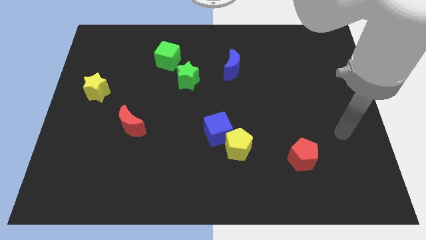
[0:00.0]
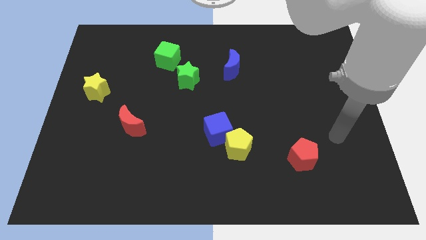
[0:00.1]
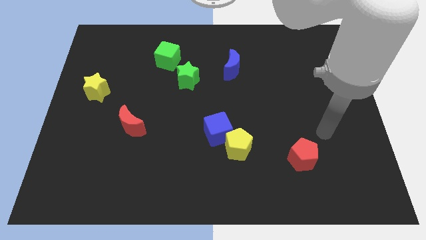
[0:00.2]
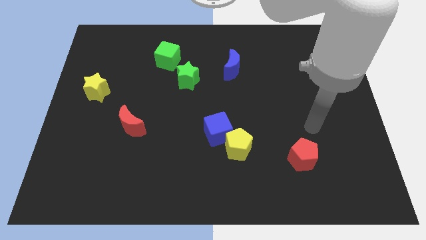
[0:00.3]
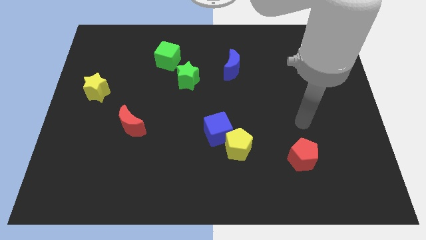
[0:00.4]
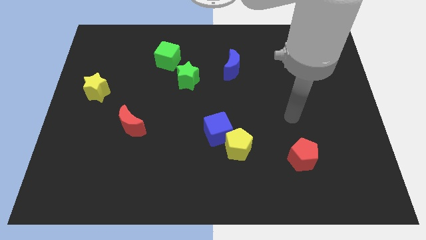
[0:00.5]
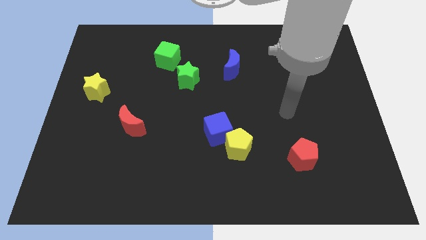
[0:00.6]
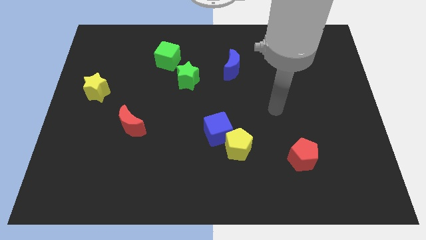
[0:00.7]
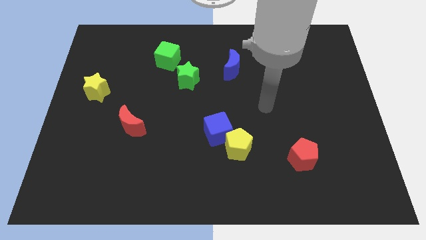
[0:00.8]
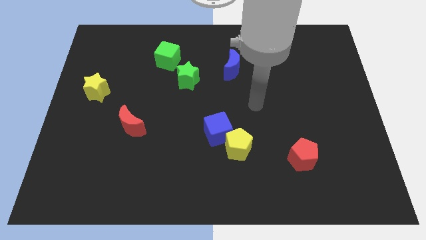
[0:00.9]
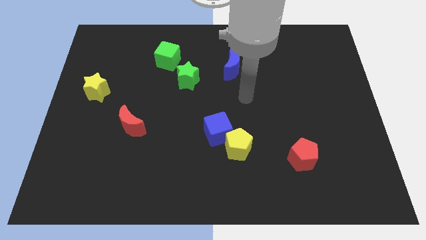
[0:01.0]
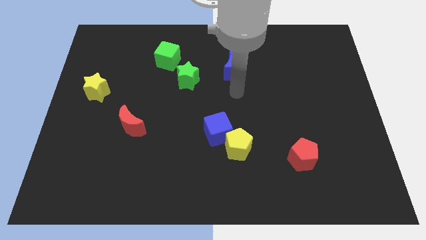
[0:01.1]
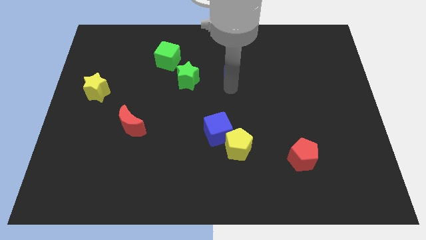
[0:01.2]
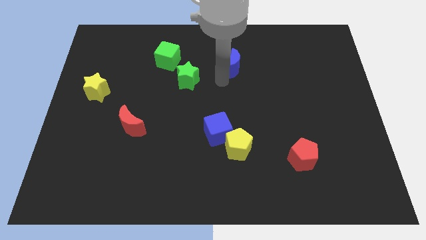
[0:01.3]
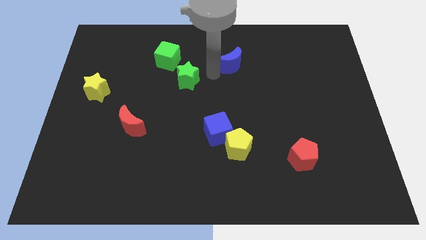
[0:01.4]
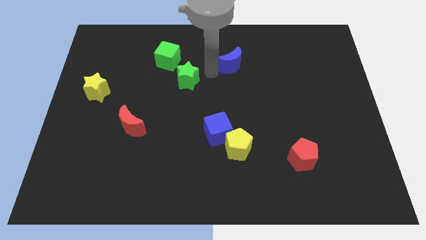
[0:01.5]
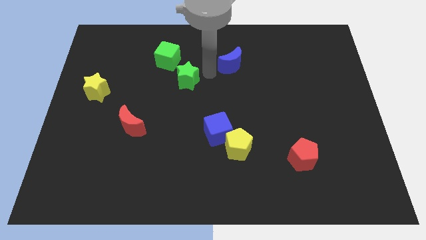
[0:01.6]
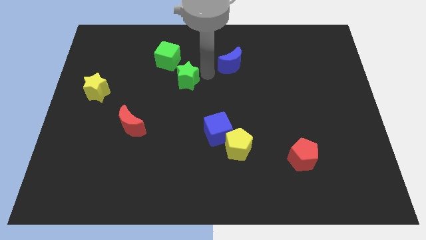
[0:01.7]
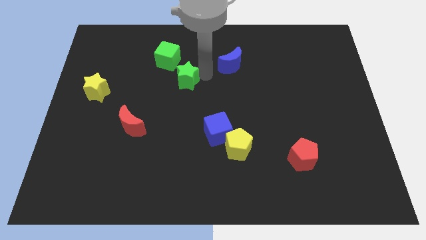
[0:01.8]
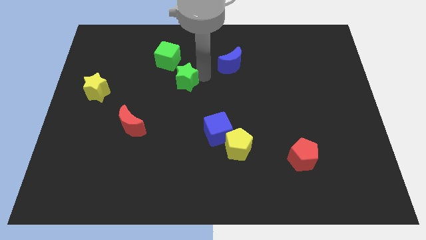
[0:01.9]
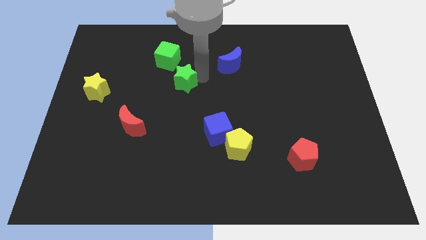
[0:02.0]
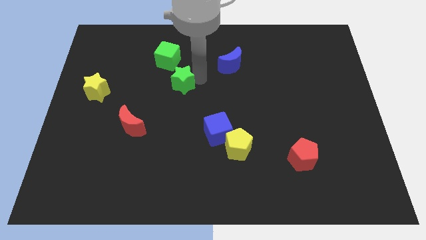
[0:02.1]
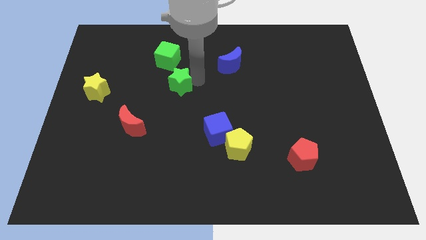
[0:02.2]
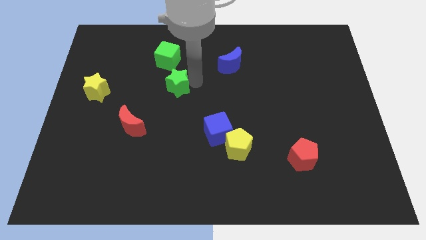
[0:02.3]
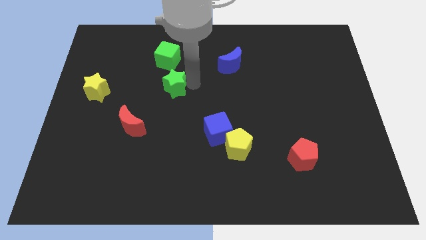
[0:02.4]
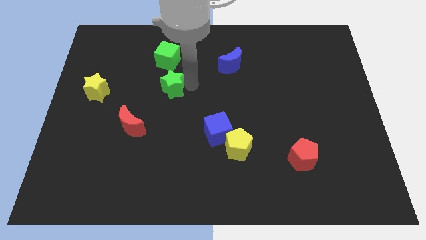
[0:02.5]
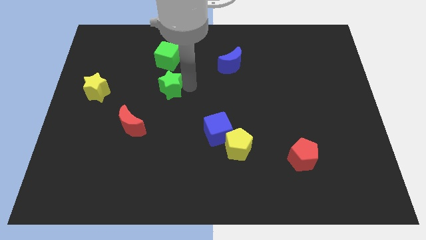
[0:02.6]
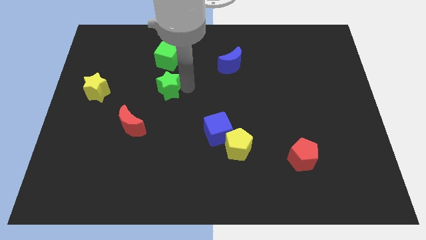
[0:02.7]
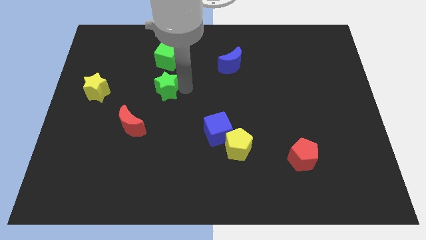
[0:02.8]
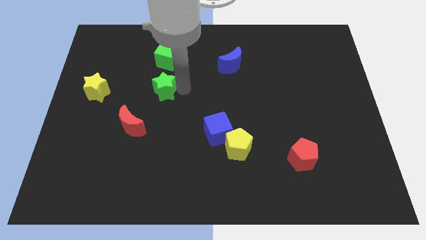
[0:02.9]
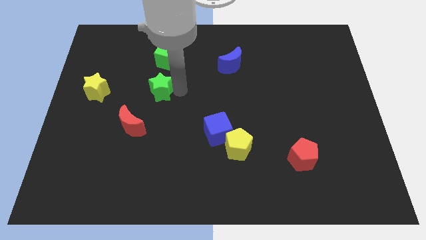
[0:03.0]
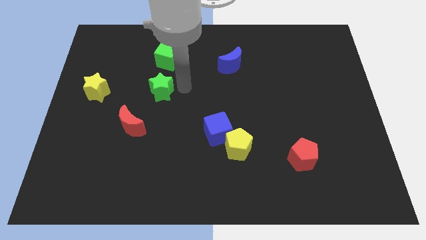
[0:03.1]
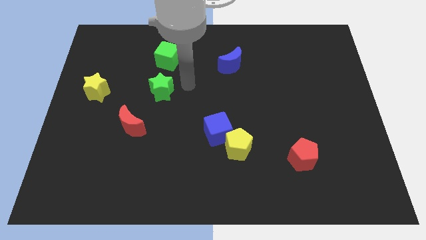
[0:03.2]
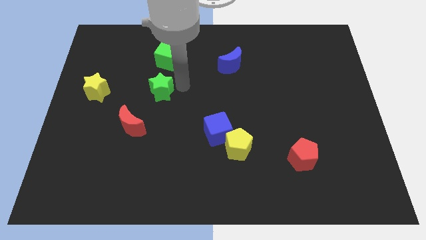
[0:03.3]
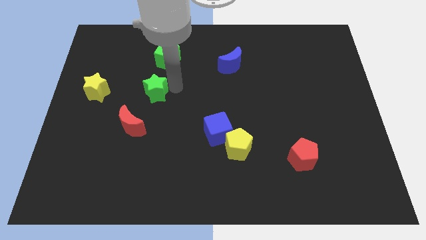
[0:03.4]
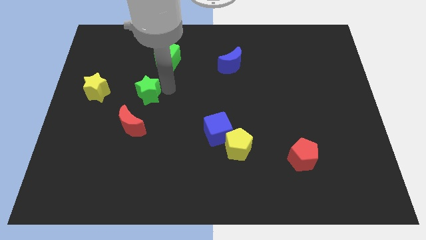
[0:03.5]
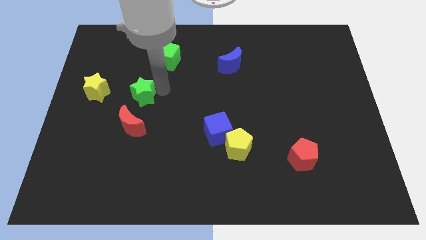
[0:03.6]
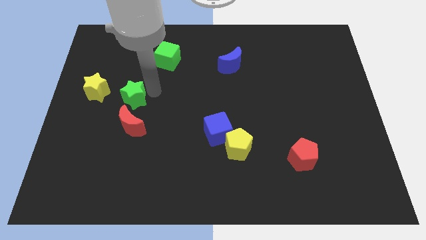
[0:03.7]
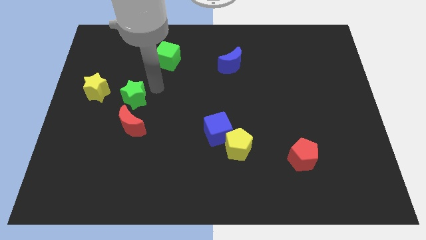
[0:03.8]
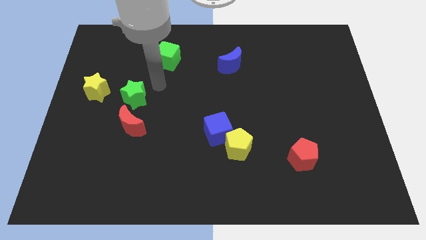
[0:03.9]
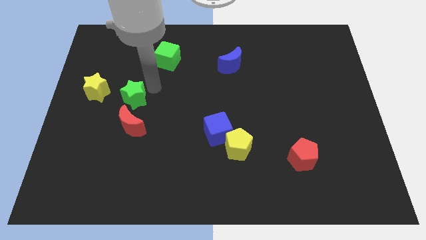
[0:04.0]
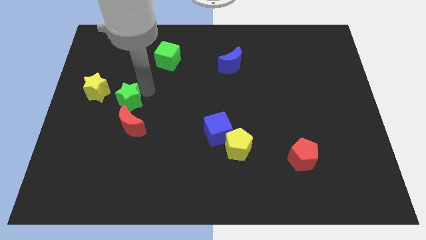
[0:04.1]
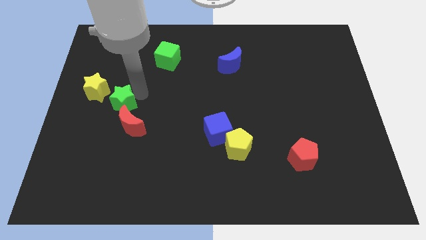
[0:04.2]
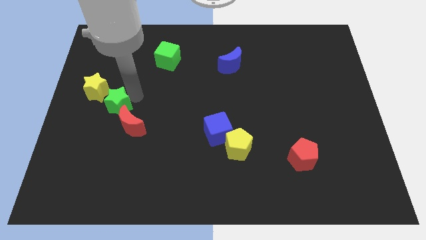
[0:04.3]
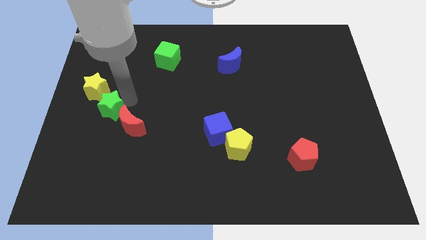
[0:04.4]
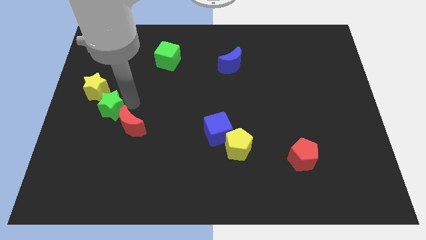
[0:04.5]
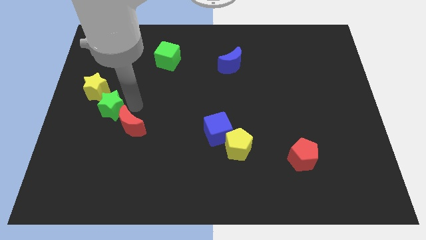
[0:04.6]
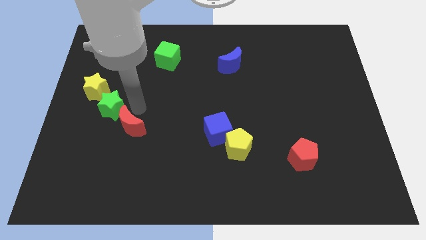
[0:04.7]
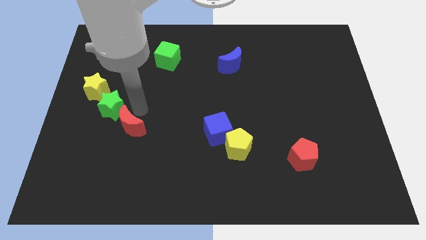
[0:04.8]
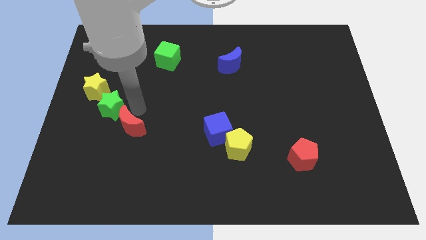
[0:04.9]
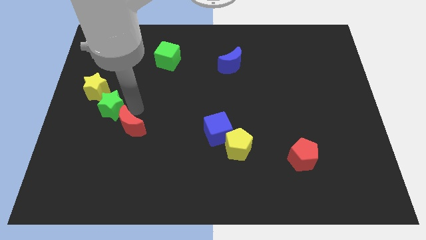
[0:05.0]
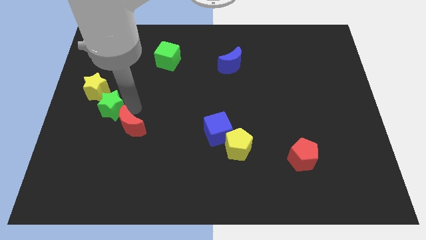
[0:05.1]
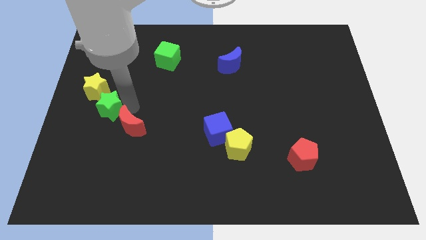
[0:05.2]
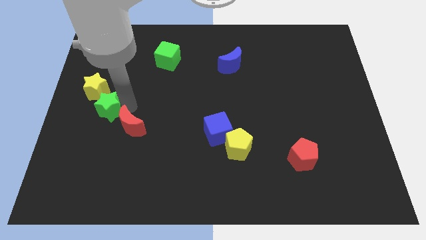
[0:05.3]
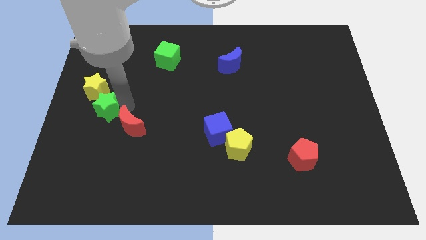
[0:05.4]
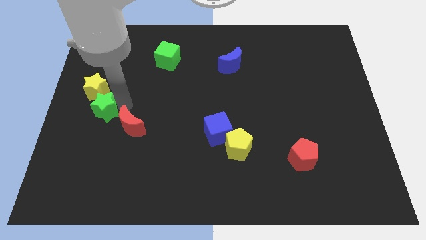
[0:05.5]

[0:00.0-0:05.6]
slide the green star to the center left

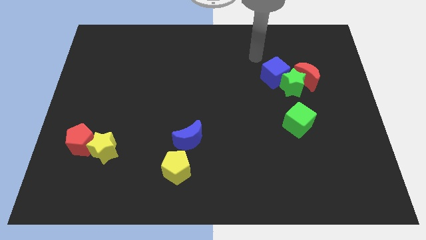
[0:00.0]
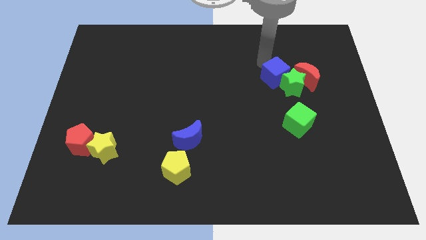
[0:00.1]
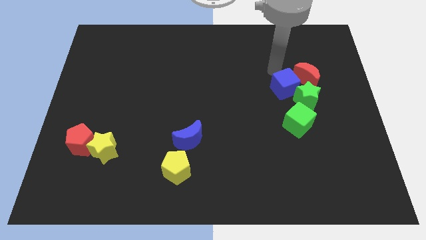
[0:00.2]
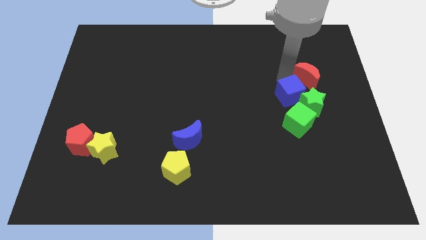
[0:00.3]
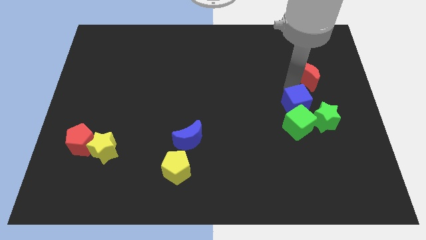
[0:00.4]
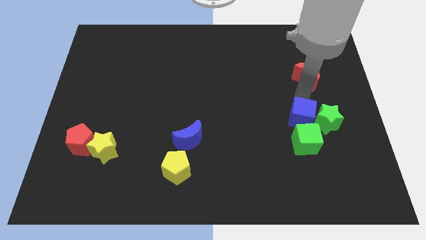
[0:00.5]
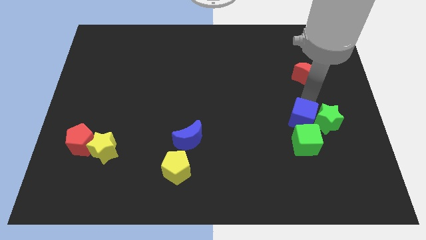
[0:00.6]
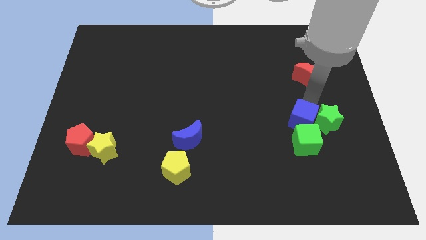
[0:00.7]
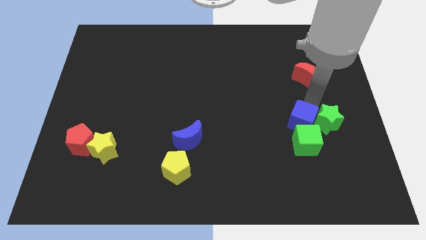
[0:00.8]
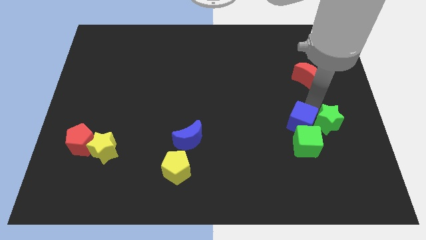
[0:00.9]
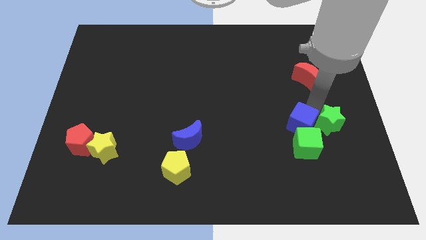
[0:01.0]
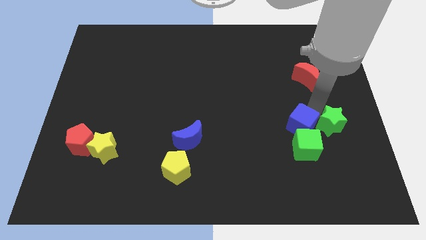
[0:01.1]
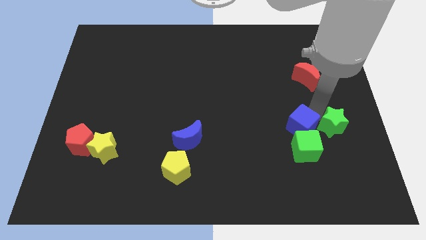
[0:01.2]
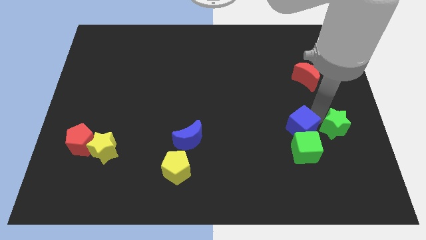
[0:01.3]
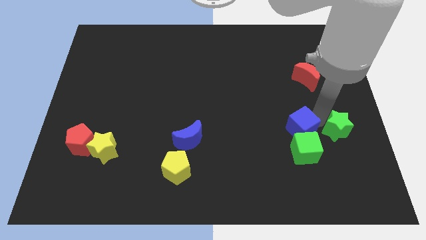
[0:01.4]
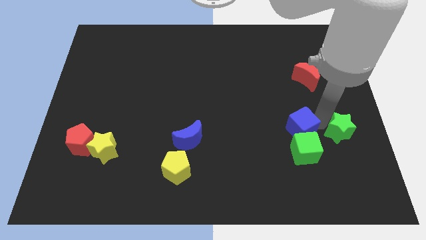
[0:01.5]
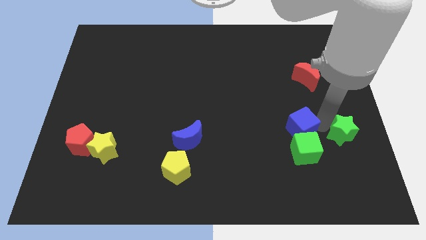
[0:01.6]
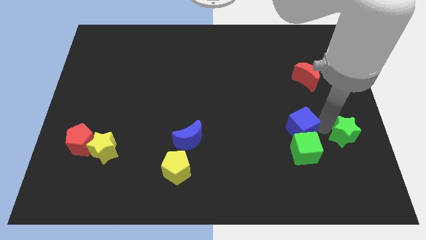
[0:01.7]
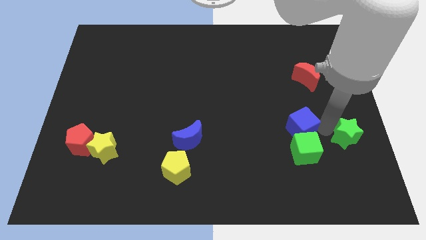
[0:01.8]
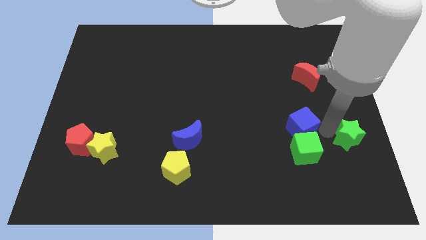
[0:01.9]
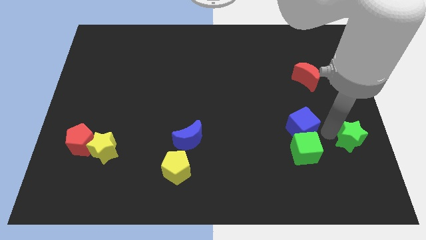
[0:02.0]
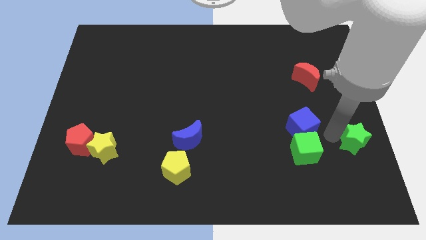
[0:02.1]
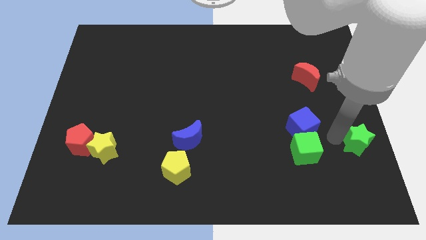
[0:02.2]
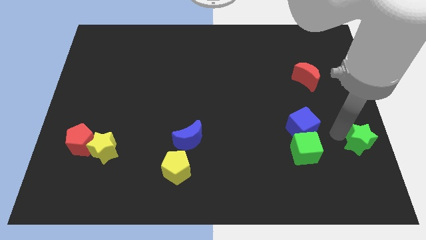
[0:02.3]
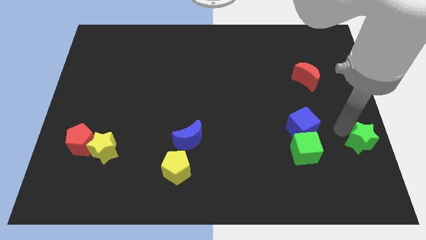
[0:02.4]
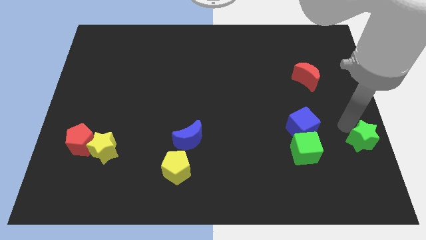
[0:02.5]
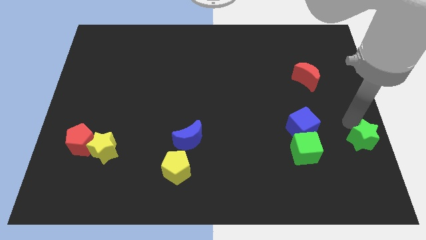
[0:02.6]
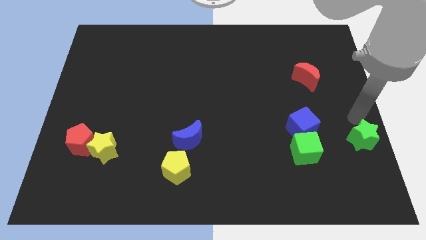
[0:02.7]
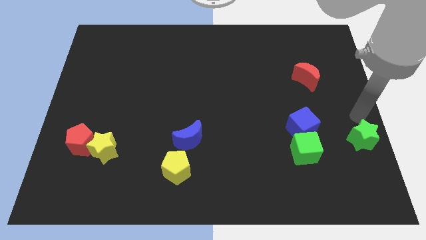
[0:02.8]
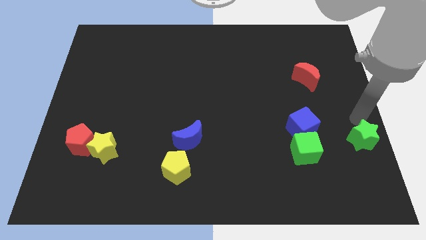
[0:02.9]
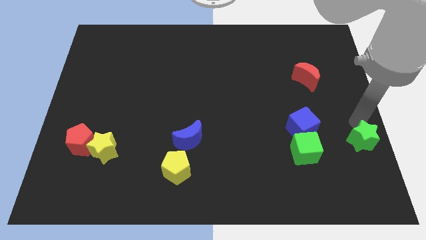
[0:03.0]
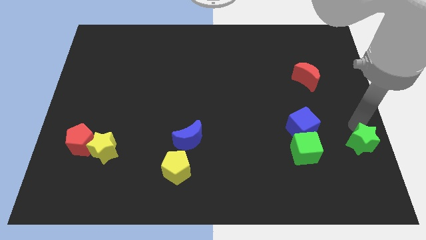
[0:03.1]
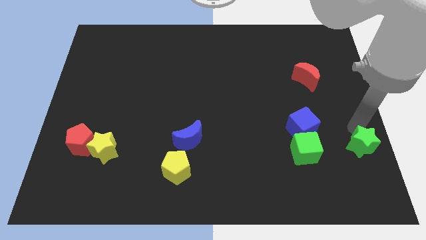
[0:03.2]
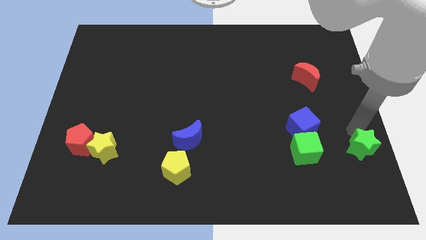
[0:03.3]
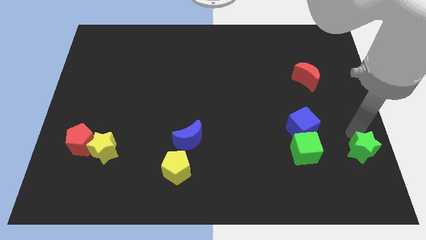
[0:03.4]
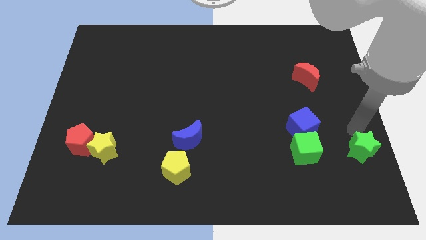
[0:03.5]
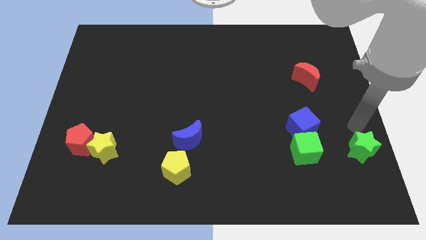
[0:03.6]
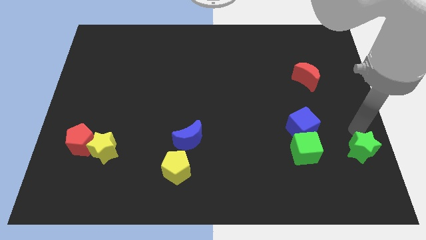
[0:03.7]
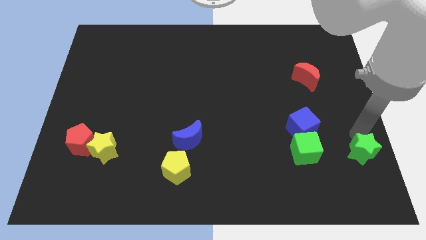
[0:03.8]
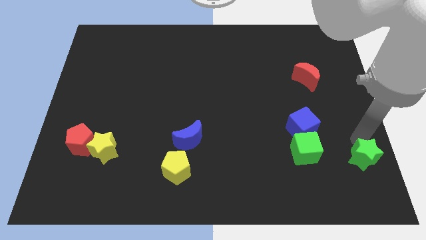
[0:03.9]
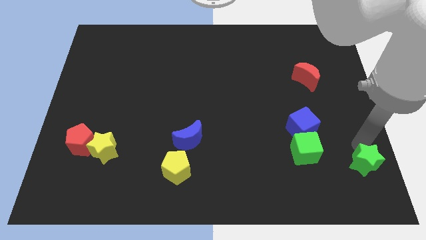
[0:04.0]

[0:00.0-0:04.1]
slide the green star to the lower right corner
